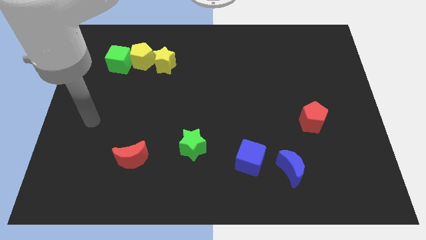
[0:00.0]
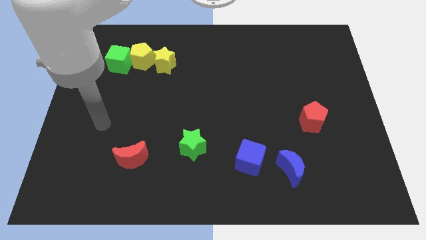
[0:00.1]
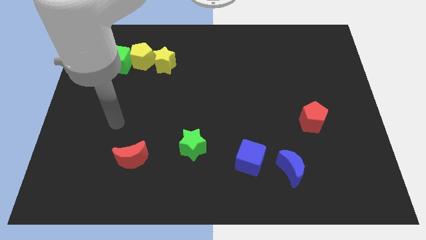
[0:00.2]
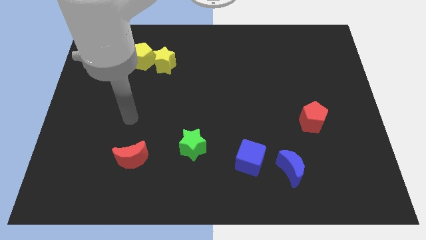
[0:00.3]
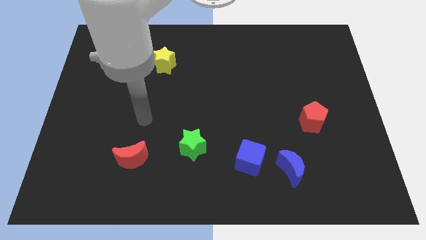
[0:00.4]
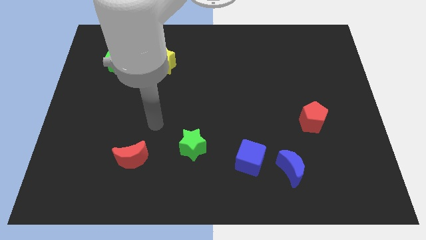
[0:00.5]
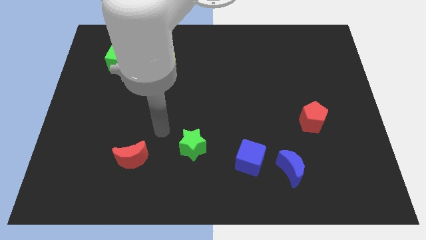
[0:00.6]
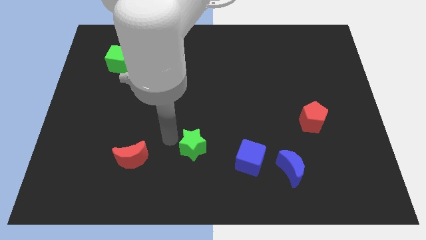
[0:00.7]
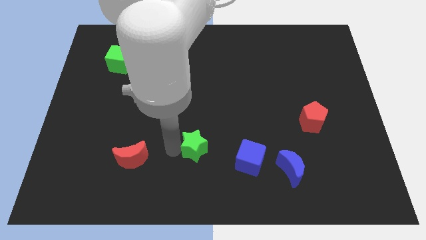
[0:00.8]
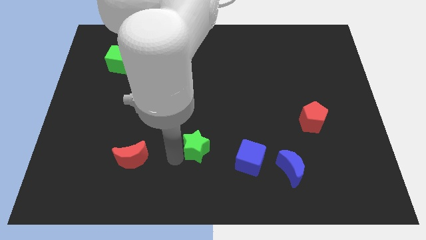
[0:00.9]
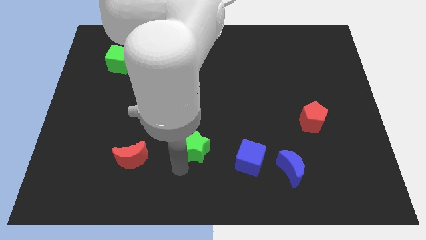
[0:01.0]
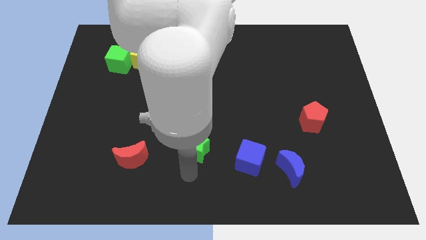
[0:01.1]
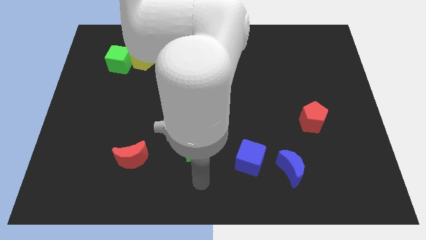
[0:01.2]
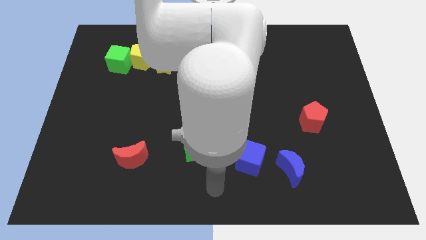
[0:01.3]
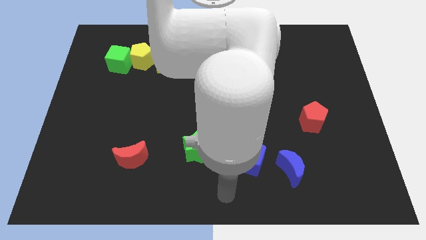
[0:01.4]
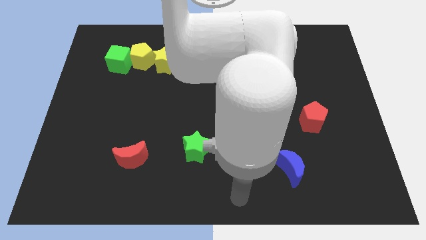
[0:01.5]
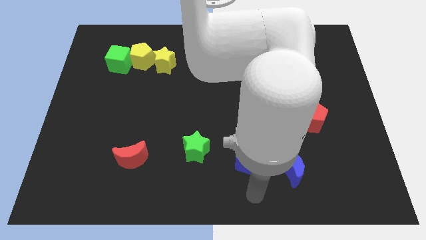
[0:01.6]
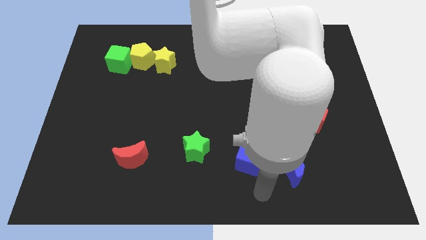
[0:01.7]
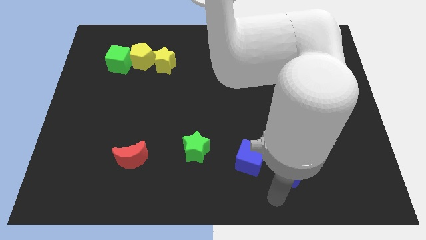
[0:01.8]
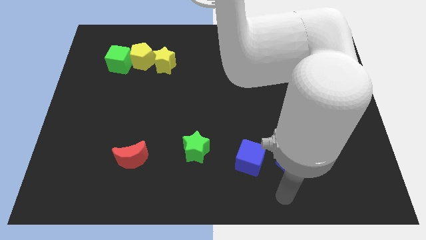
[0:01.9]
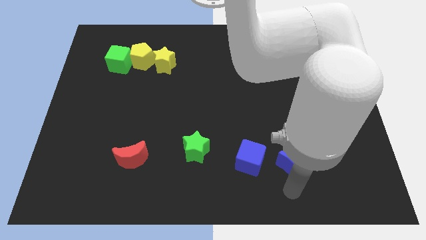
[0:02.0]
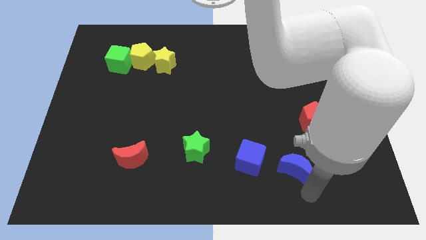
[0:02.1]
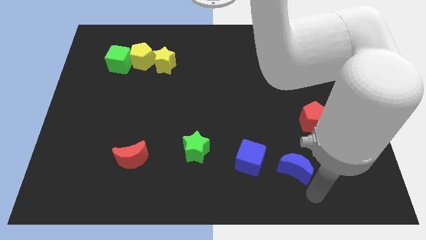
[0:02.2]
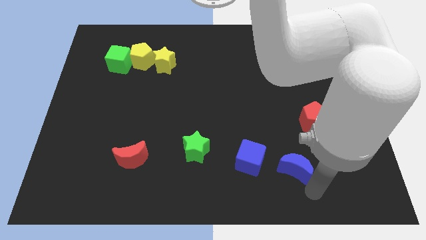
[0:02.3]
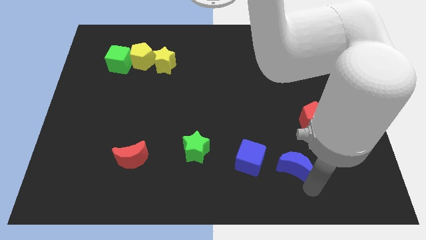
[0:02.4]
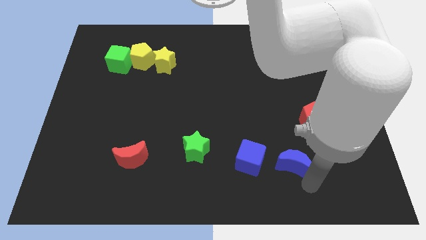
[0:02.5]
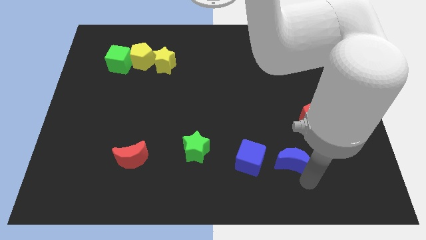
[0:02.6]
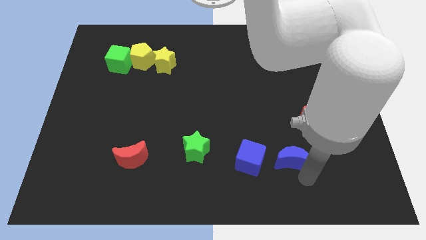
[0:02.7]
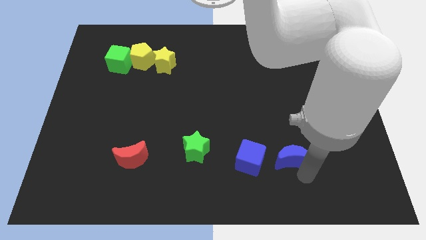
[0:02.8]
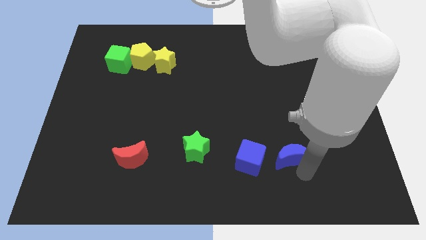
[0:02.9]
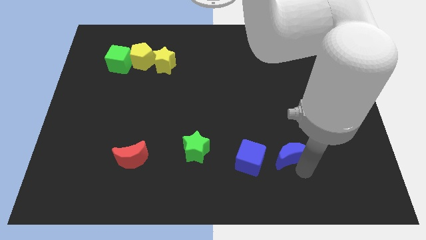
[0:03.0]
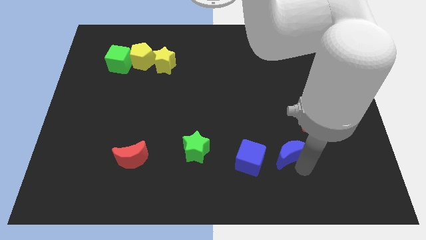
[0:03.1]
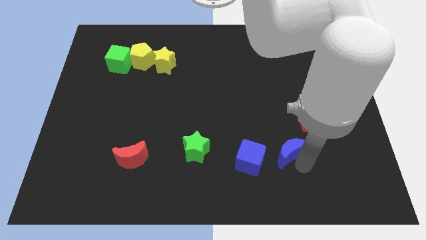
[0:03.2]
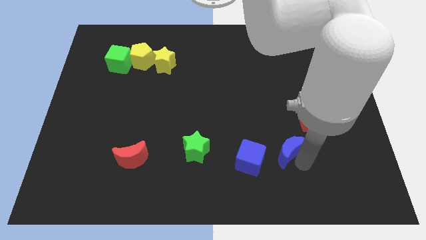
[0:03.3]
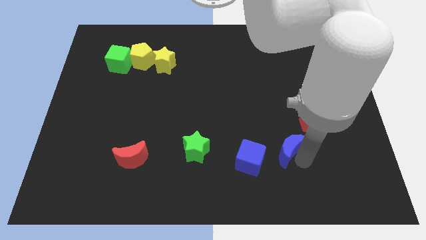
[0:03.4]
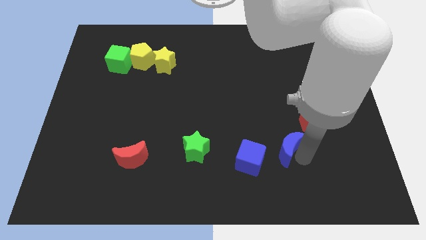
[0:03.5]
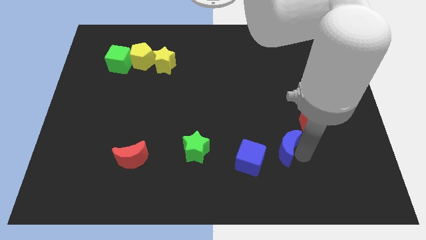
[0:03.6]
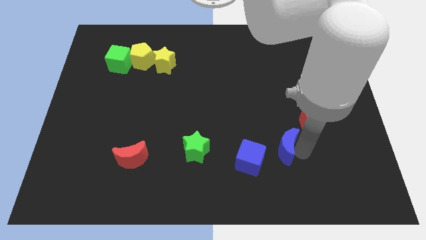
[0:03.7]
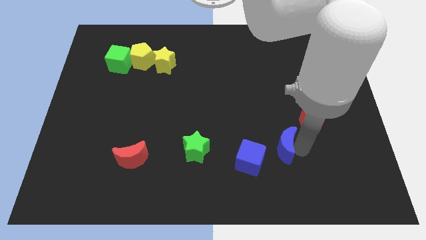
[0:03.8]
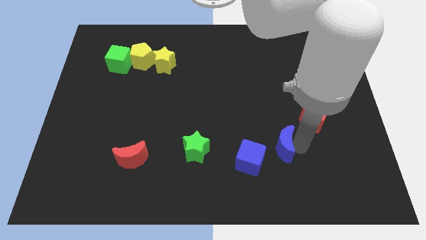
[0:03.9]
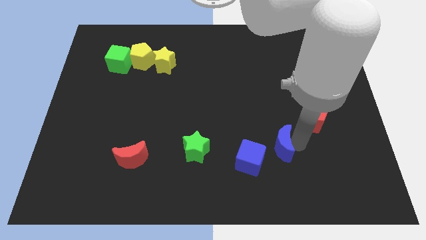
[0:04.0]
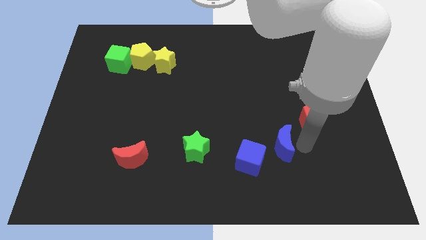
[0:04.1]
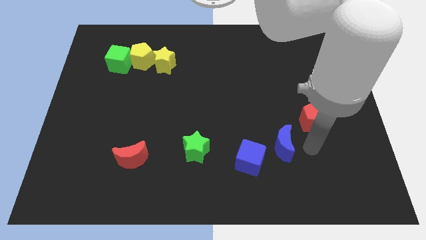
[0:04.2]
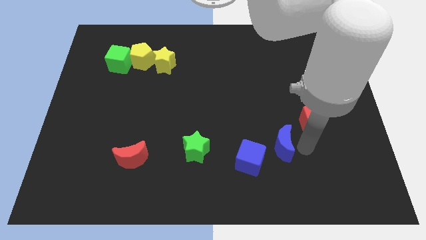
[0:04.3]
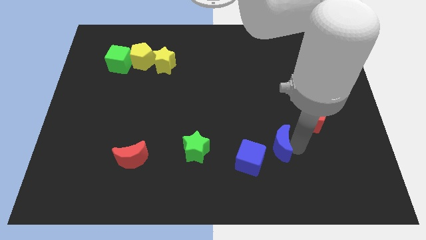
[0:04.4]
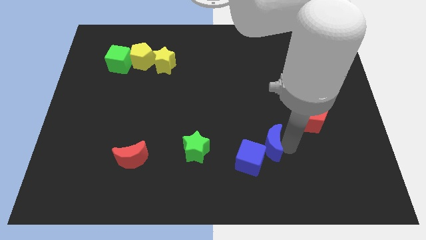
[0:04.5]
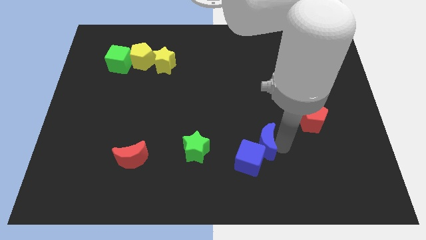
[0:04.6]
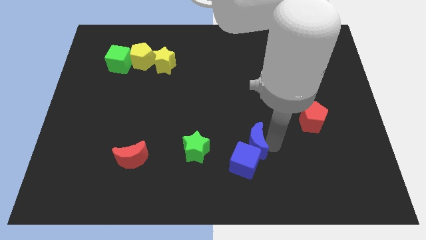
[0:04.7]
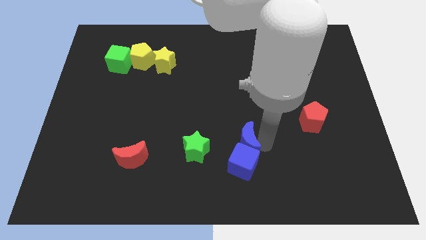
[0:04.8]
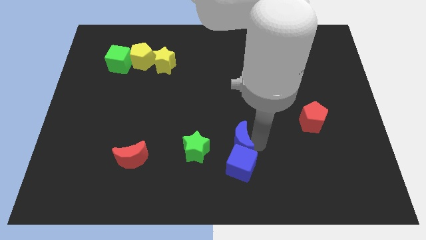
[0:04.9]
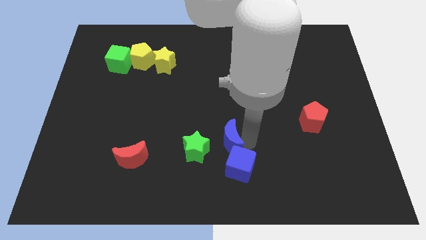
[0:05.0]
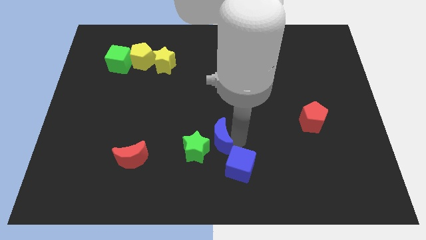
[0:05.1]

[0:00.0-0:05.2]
put the blue moon next to the green star

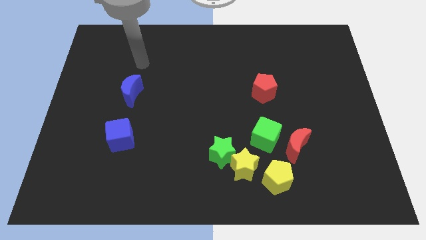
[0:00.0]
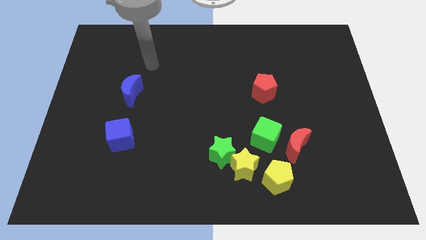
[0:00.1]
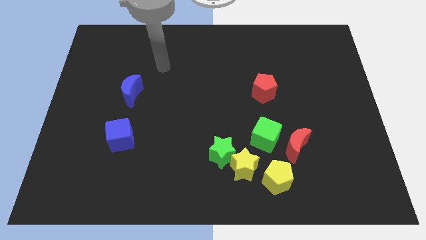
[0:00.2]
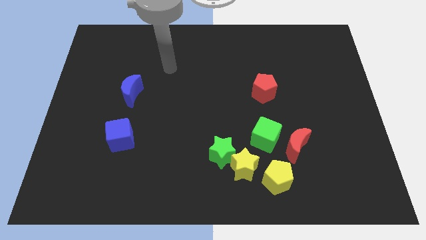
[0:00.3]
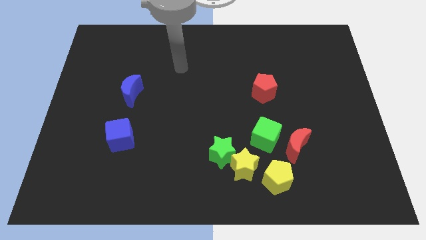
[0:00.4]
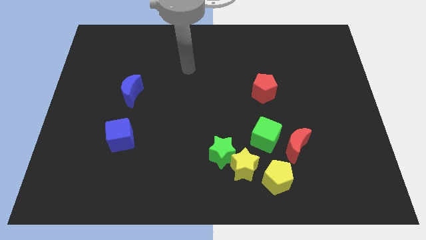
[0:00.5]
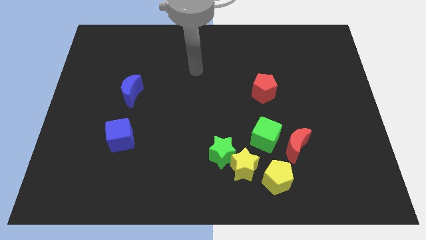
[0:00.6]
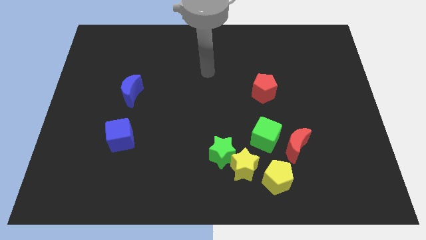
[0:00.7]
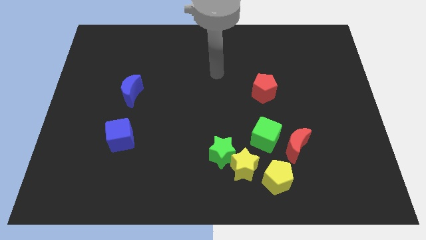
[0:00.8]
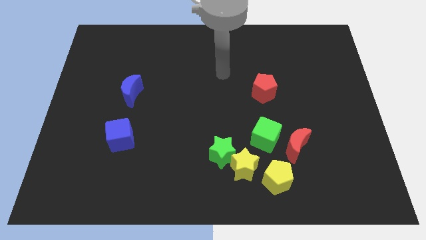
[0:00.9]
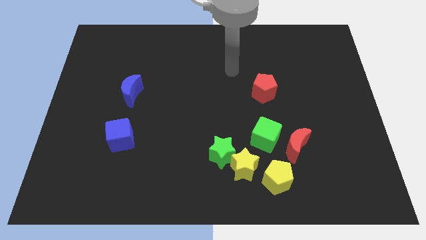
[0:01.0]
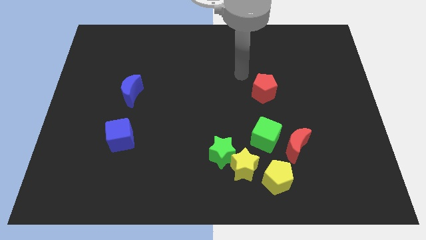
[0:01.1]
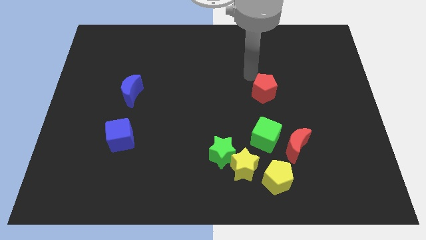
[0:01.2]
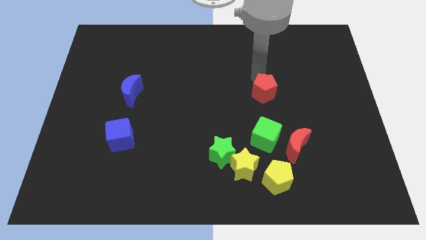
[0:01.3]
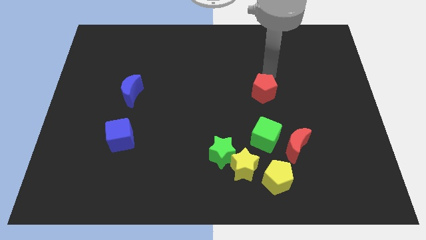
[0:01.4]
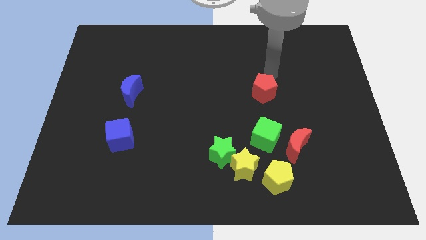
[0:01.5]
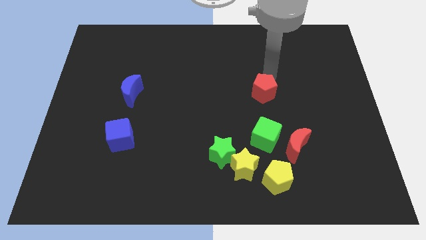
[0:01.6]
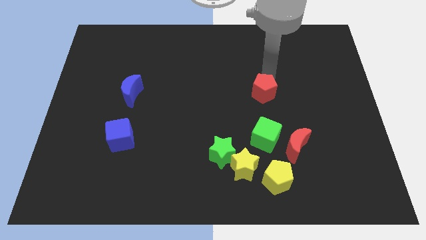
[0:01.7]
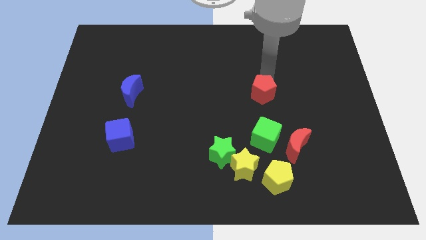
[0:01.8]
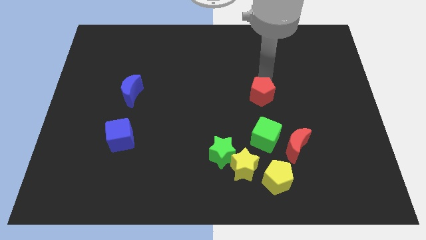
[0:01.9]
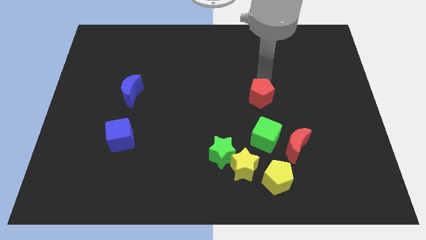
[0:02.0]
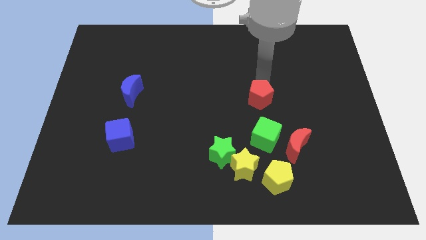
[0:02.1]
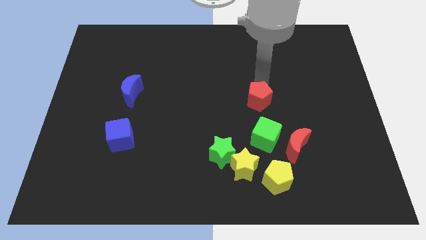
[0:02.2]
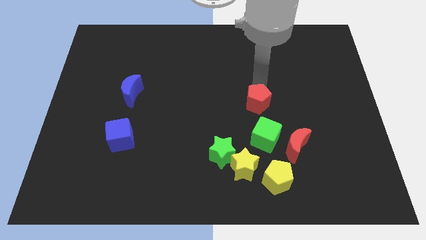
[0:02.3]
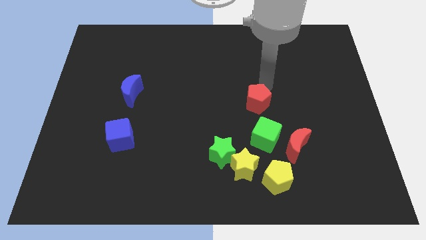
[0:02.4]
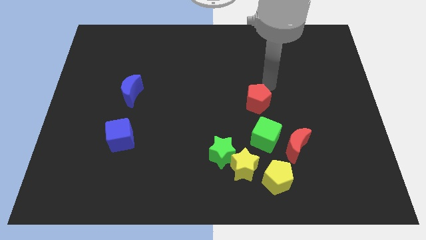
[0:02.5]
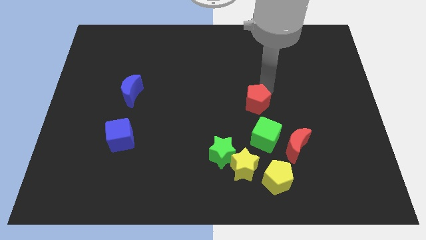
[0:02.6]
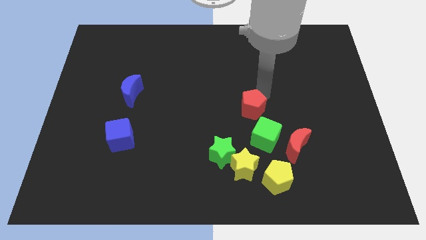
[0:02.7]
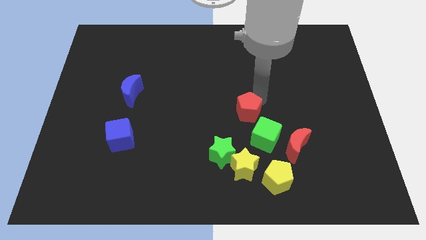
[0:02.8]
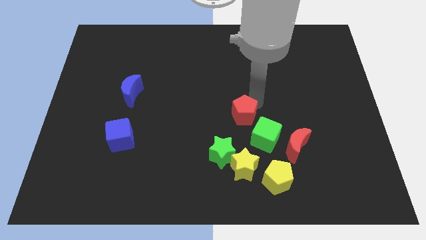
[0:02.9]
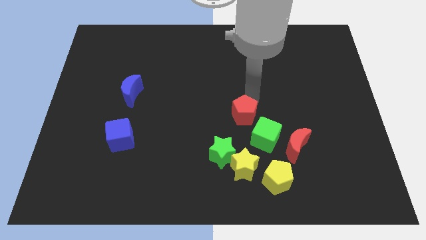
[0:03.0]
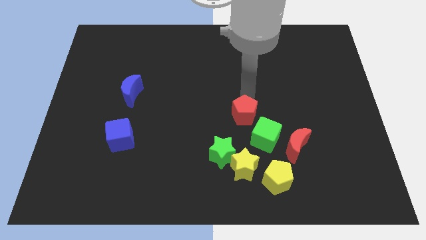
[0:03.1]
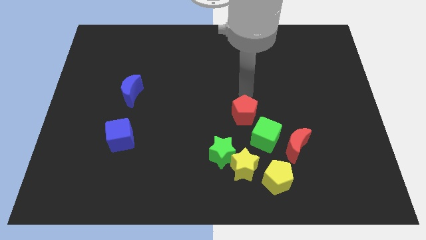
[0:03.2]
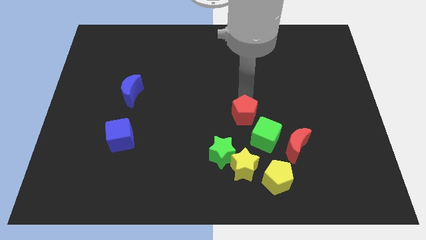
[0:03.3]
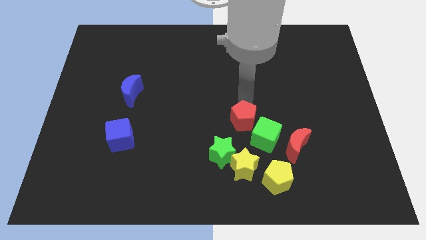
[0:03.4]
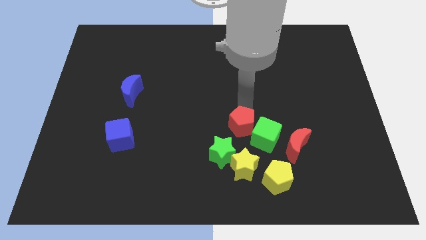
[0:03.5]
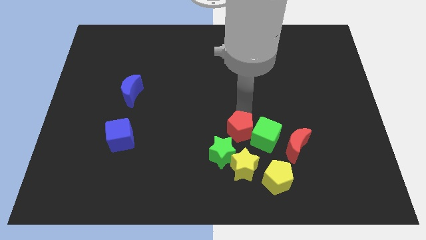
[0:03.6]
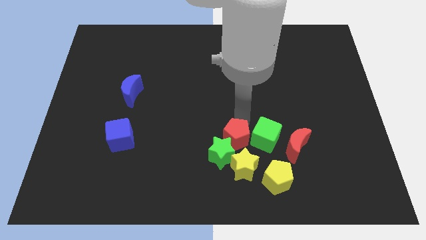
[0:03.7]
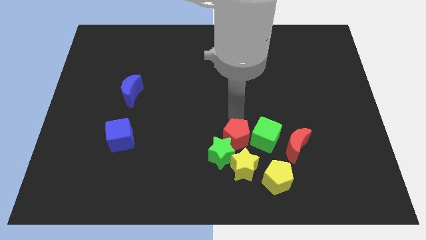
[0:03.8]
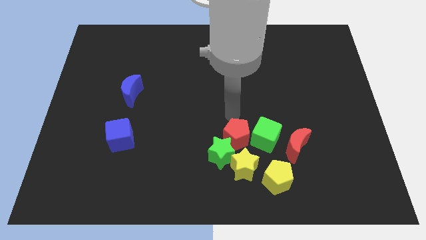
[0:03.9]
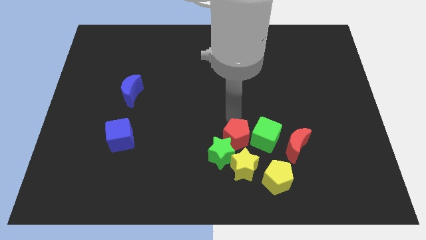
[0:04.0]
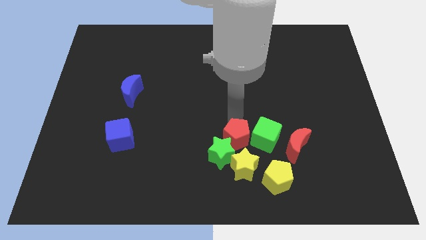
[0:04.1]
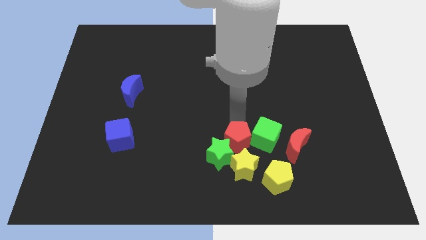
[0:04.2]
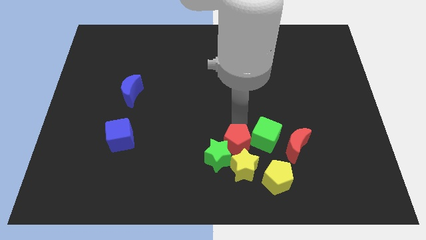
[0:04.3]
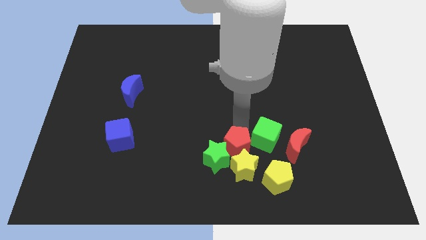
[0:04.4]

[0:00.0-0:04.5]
put the red pentagon towards the yellow star
